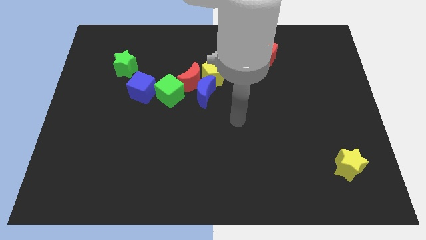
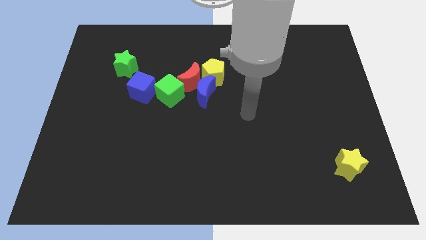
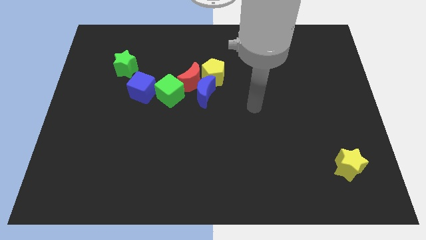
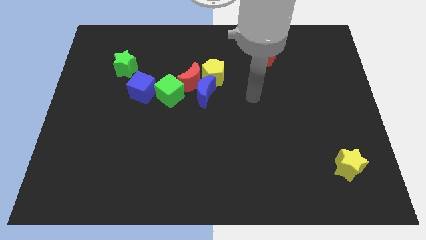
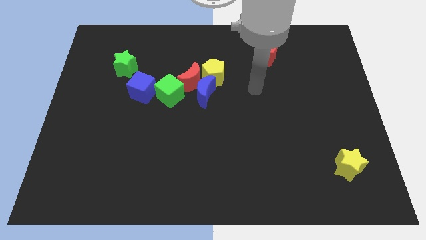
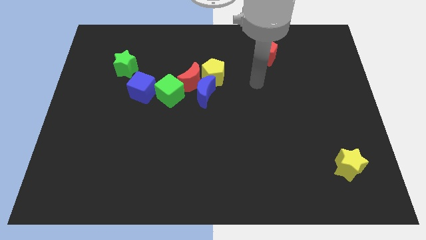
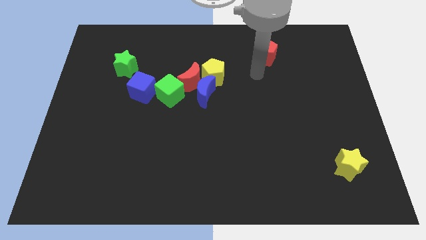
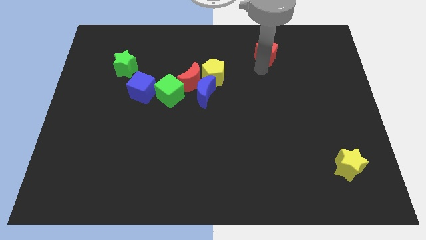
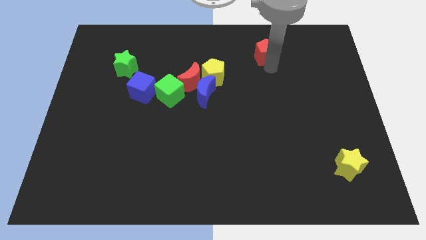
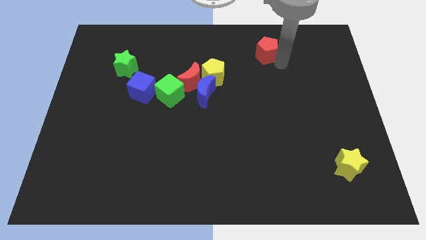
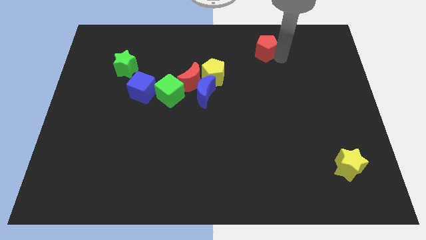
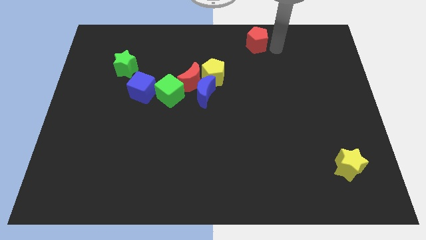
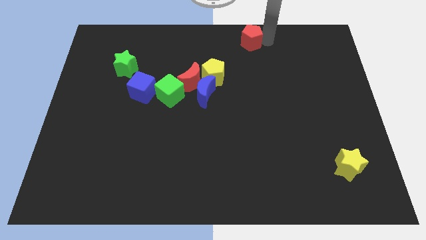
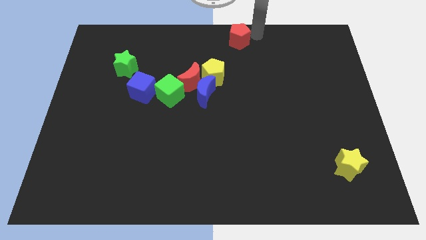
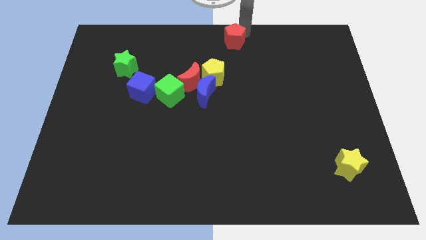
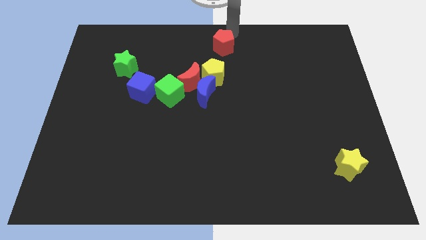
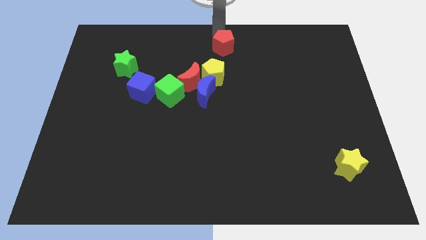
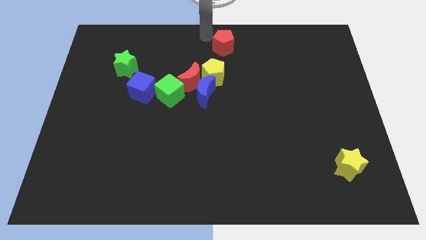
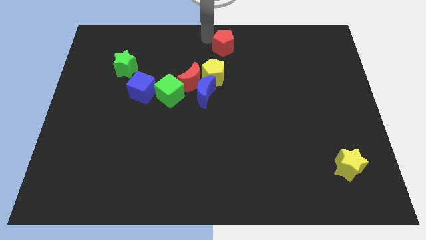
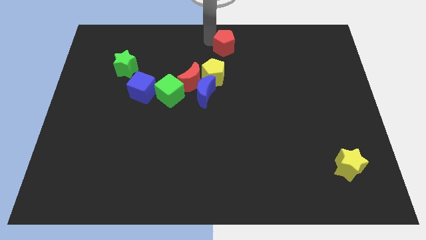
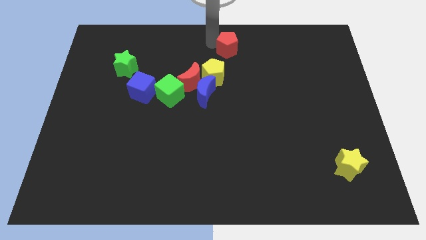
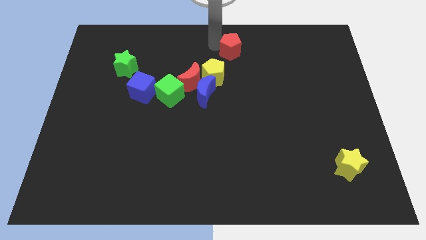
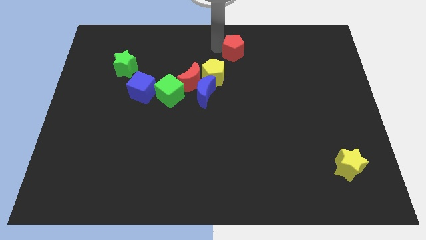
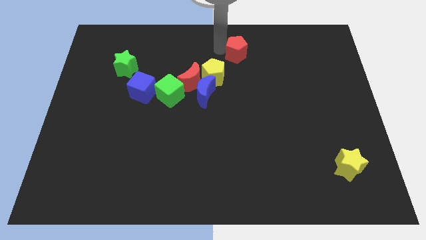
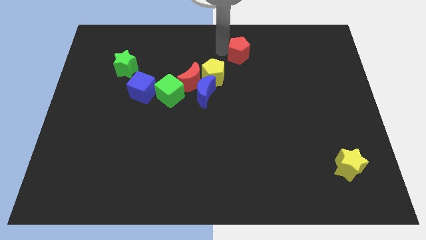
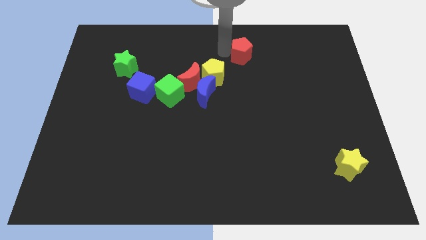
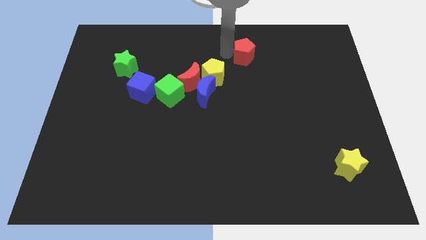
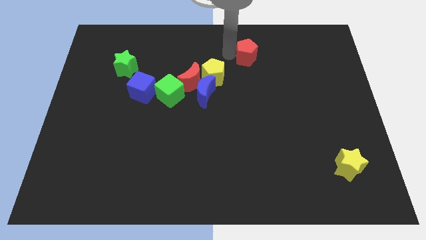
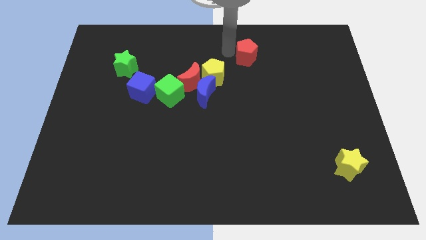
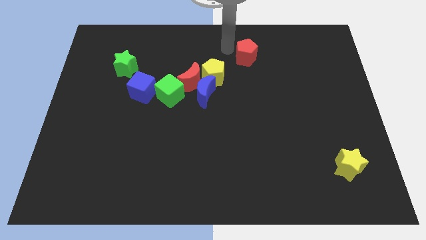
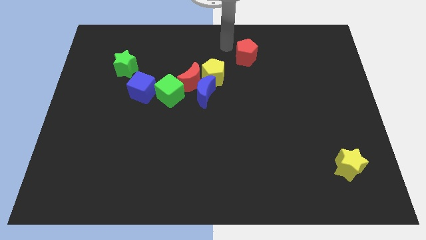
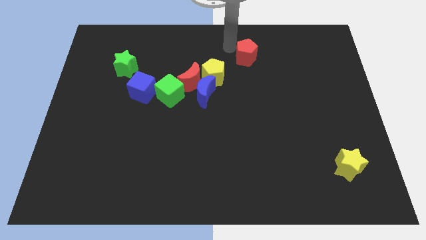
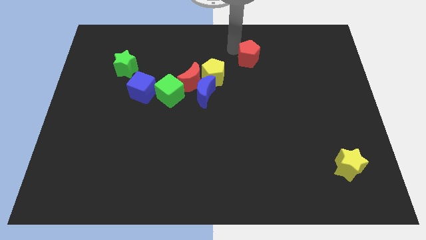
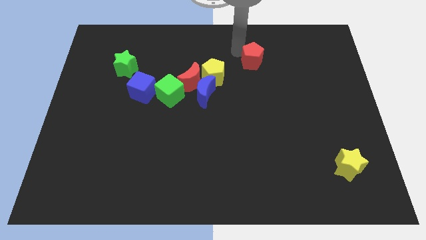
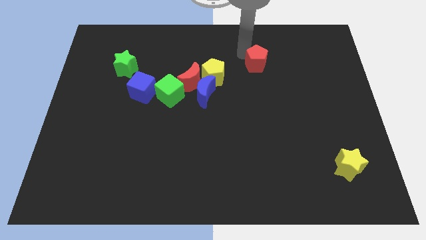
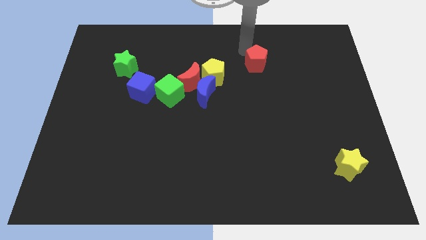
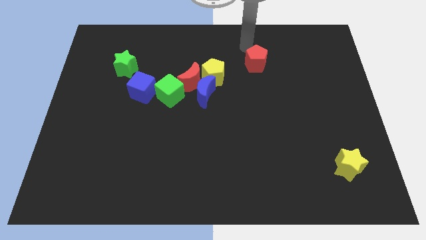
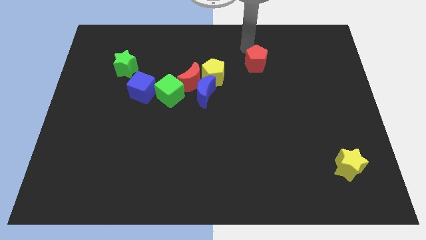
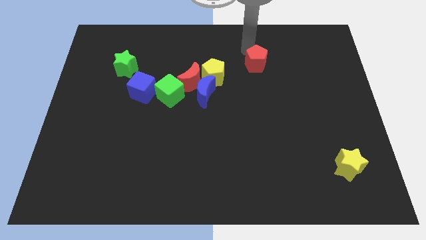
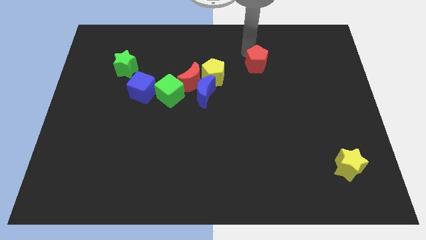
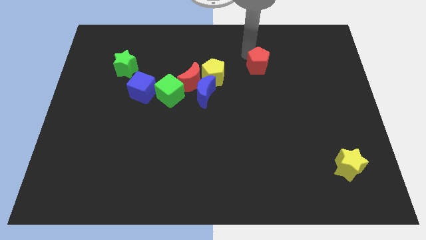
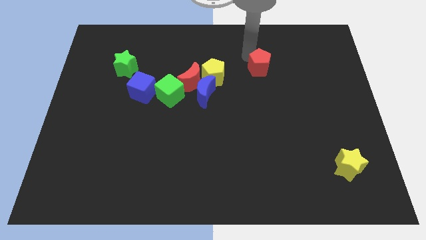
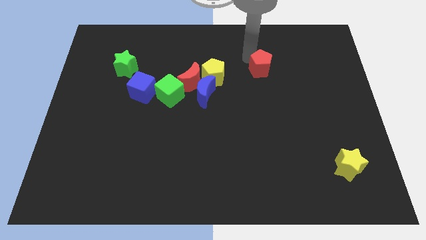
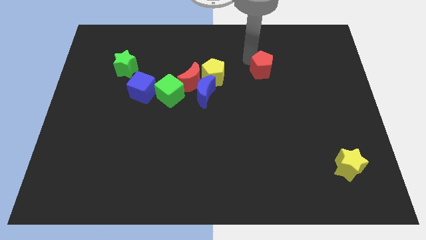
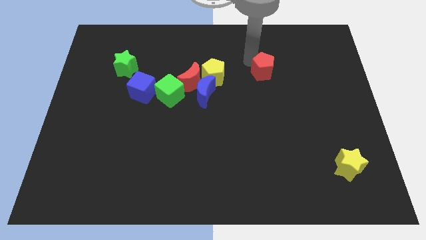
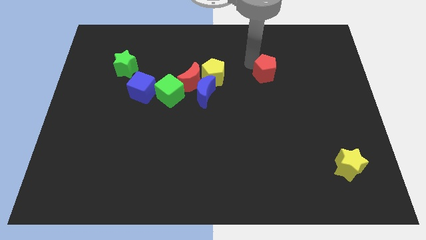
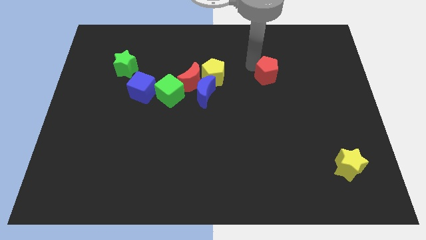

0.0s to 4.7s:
slide the red pentagon down a little bit

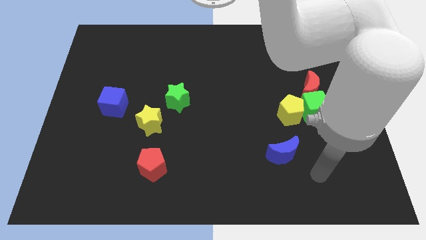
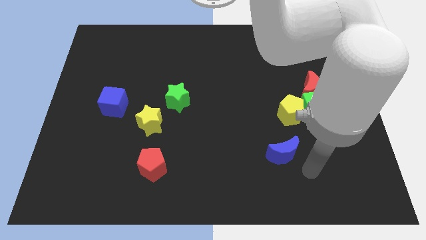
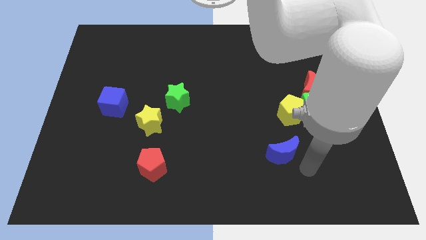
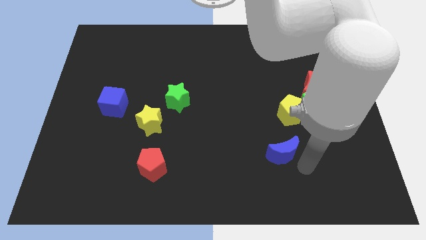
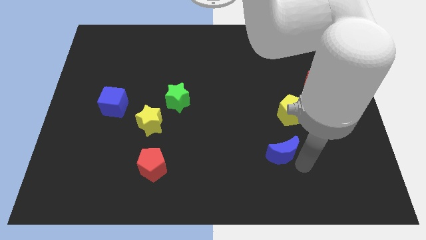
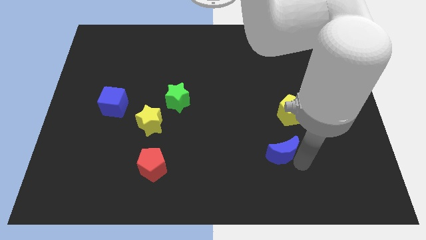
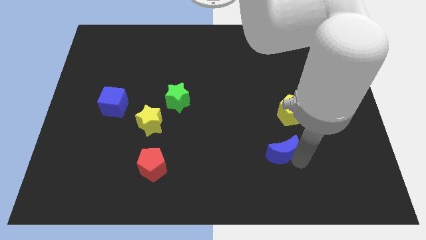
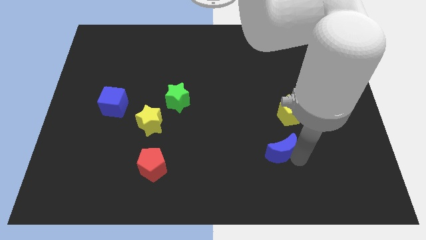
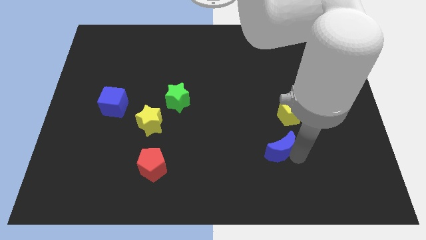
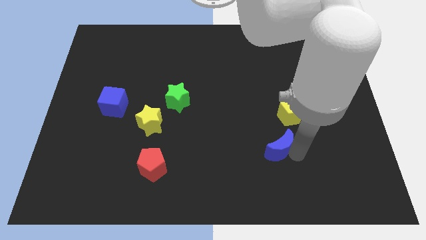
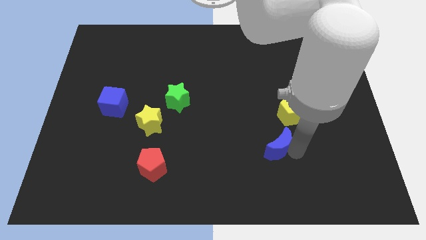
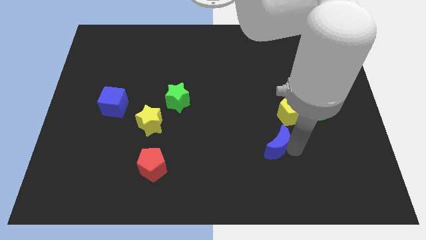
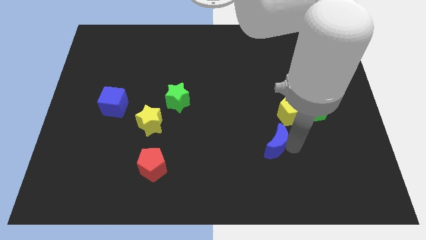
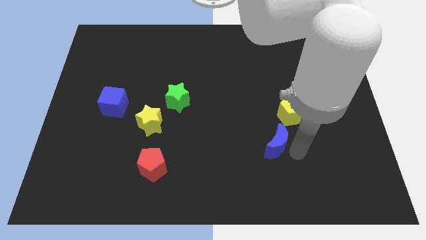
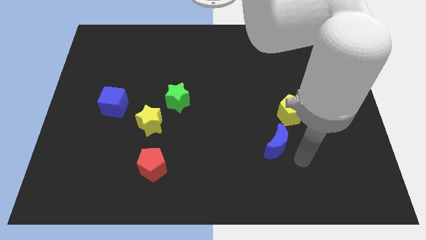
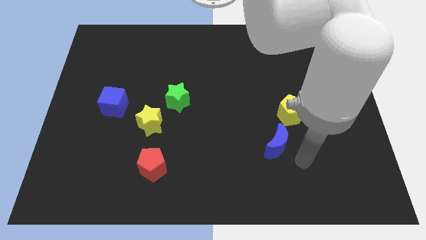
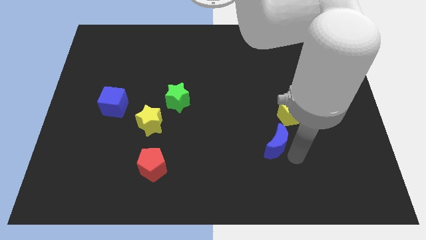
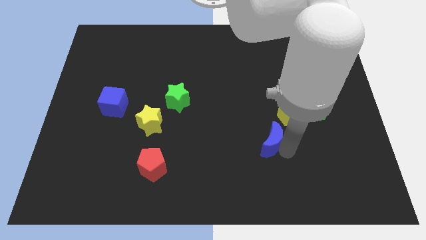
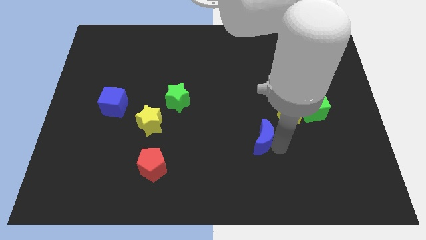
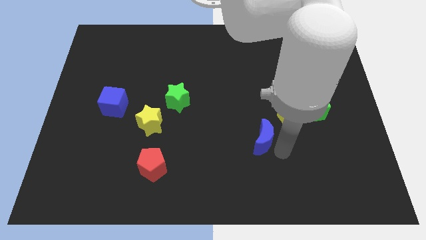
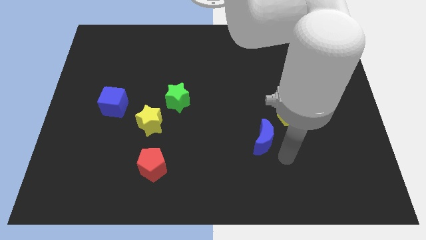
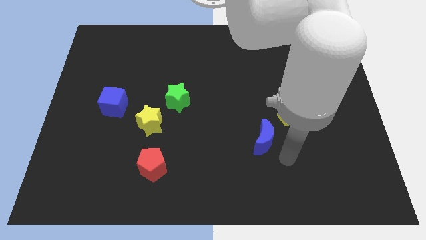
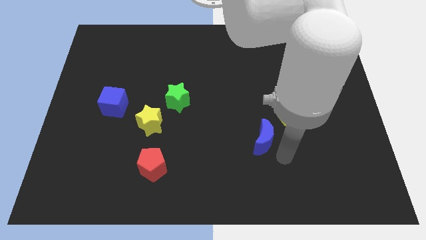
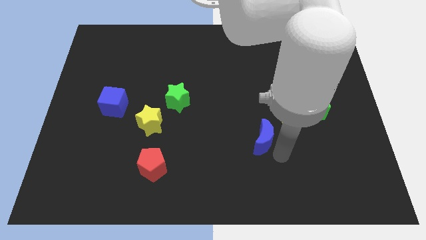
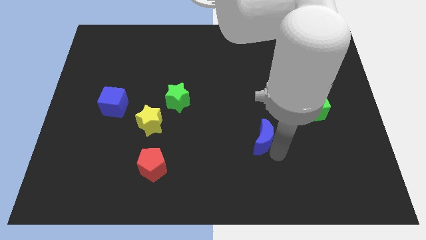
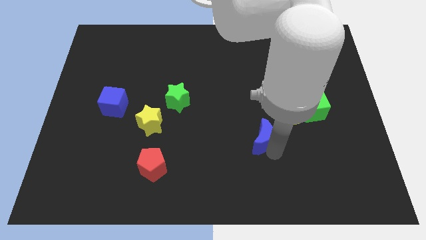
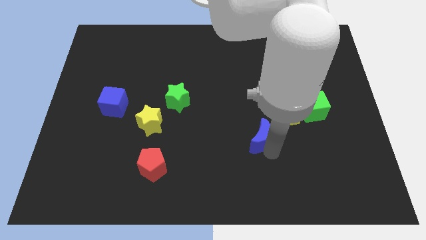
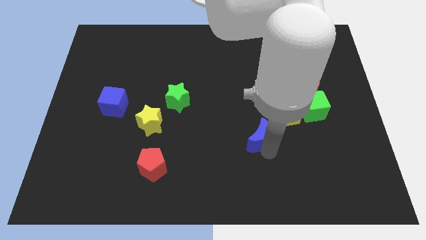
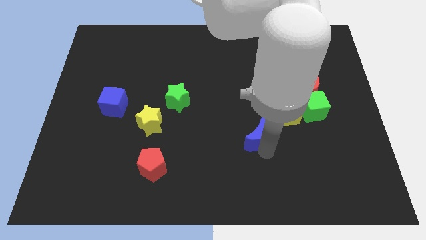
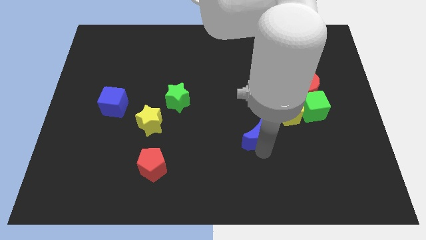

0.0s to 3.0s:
move the blue moon up and then to the left slightly

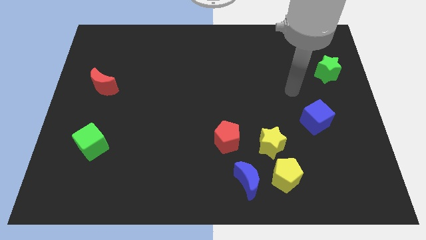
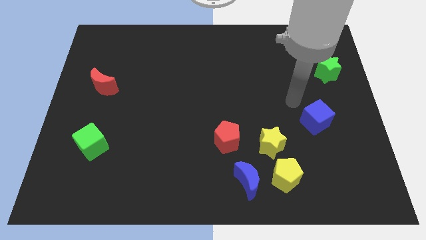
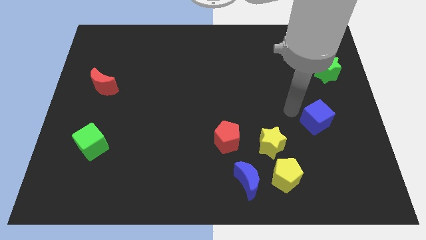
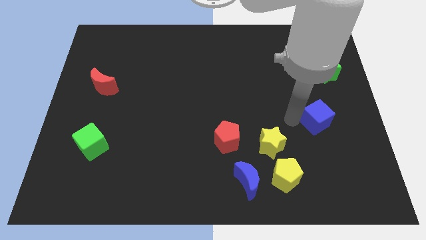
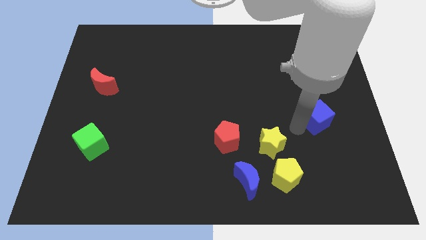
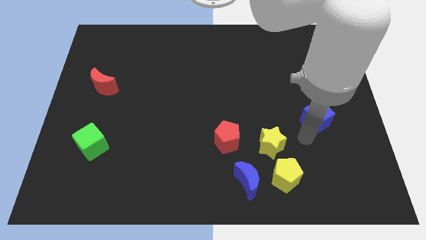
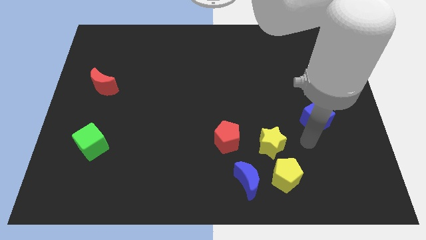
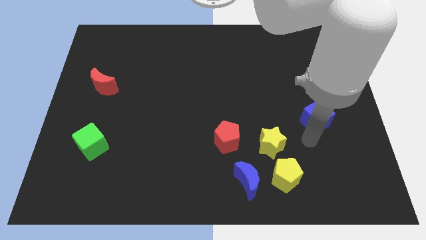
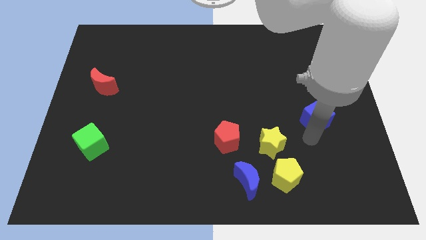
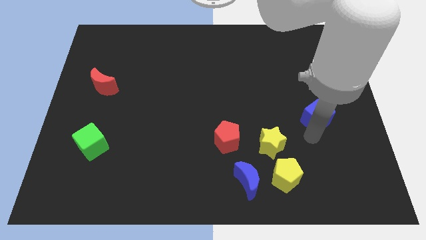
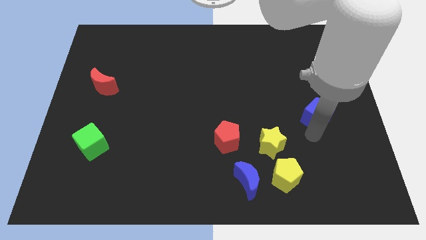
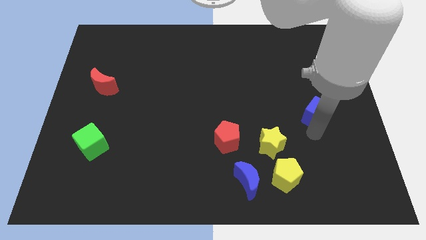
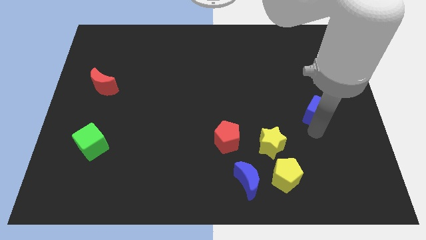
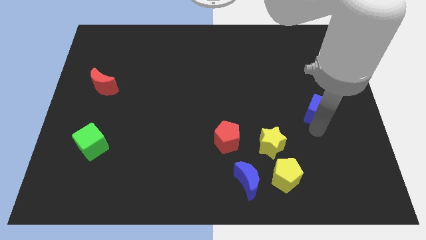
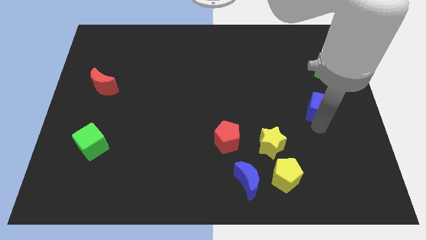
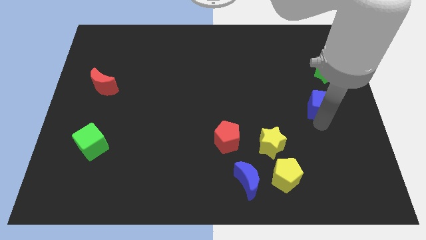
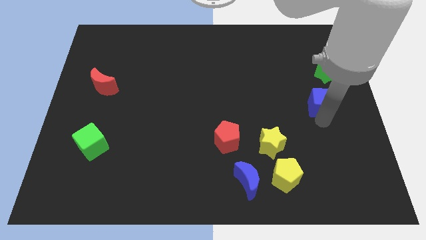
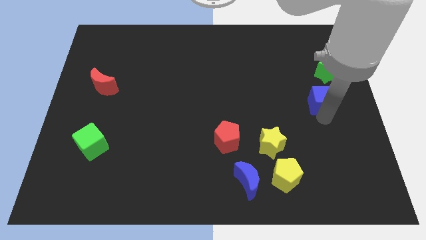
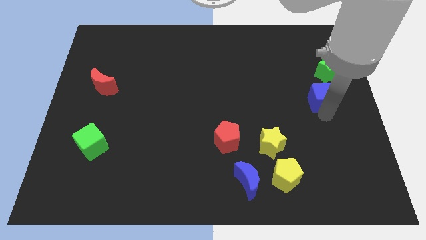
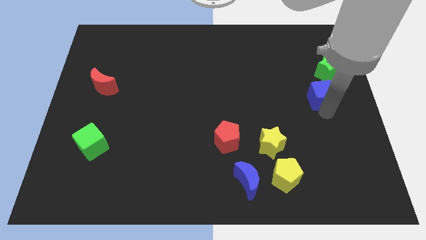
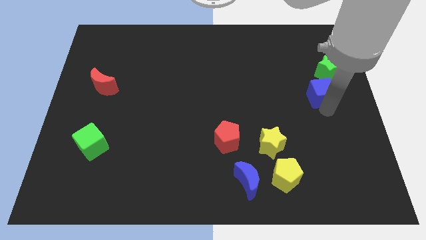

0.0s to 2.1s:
slightly slide the blue cube up
